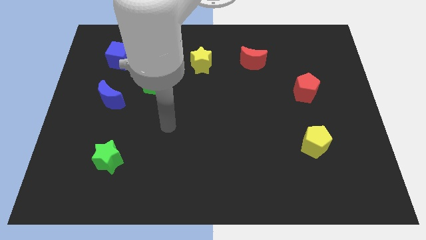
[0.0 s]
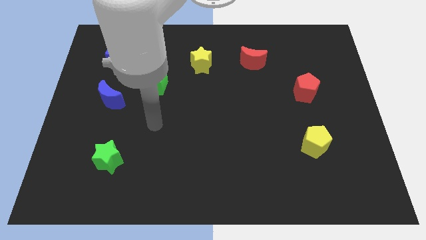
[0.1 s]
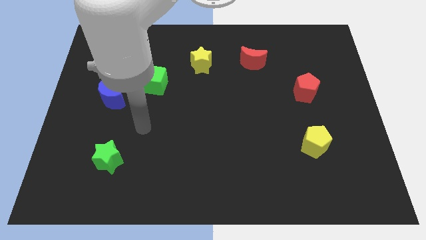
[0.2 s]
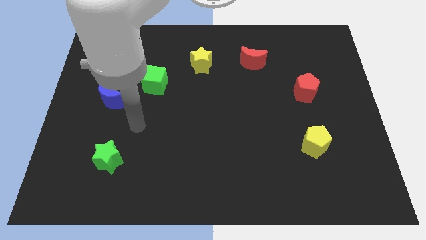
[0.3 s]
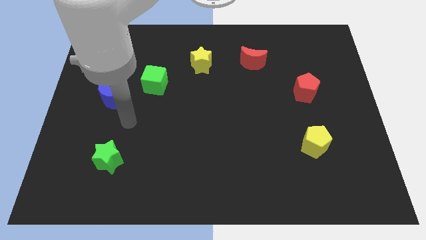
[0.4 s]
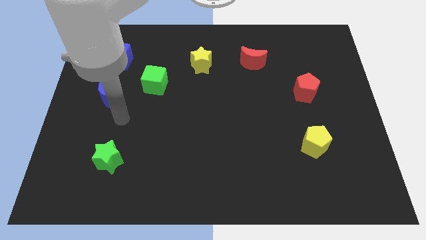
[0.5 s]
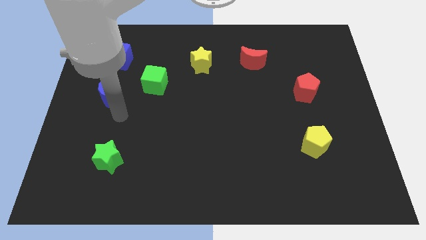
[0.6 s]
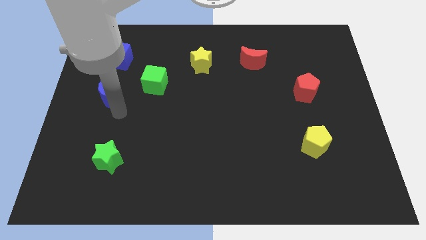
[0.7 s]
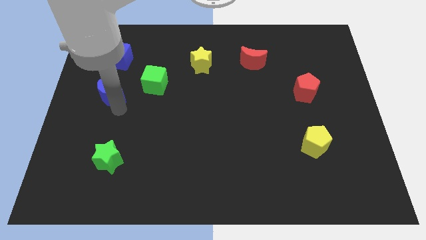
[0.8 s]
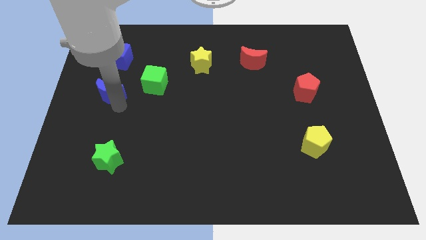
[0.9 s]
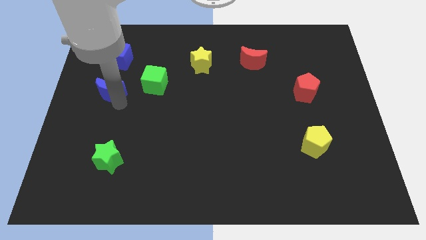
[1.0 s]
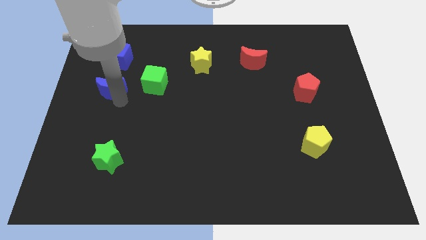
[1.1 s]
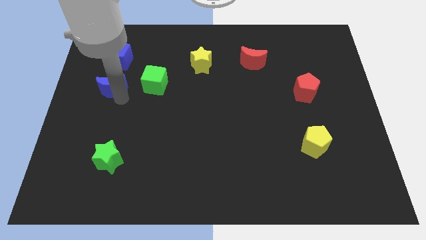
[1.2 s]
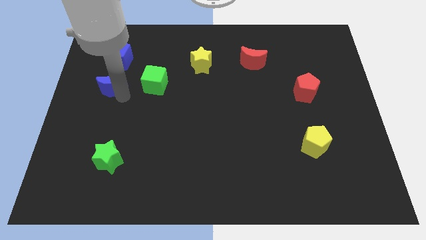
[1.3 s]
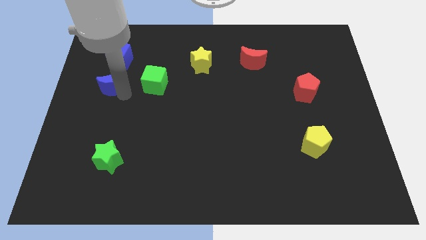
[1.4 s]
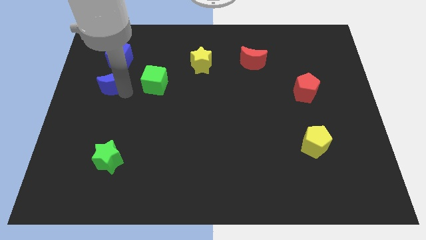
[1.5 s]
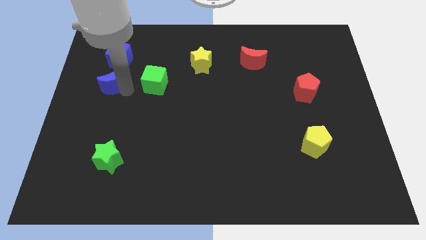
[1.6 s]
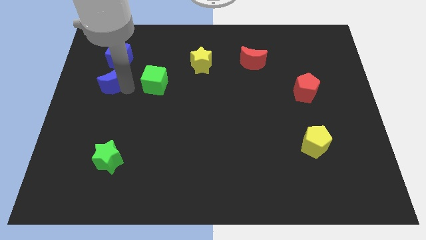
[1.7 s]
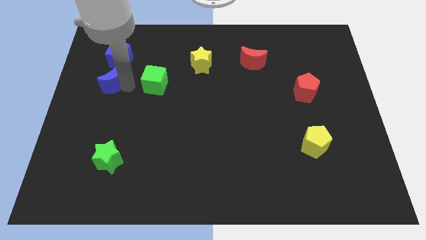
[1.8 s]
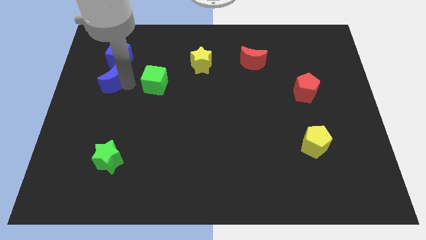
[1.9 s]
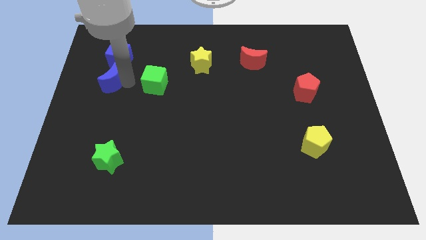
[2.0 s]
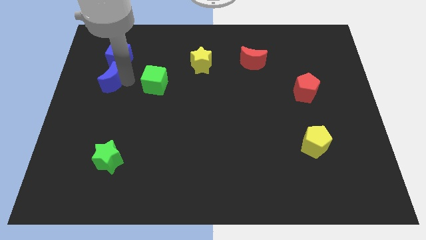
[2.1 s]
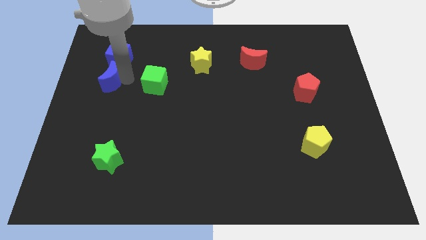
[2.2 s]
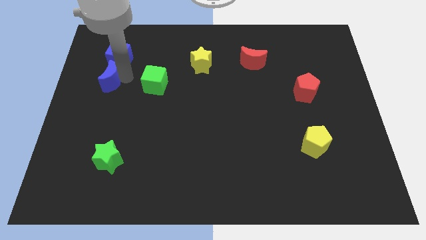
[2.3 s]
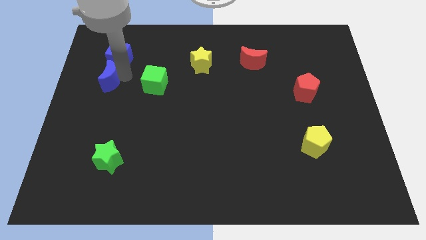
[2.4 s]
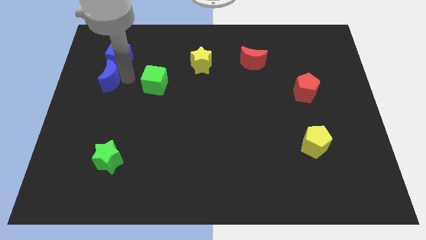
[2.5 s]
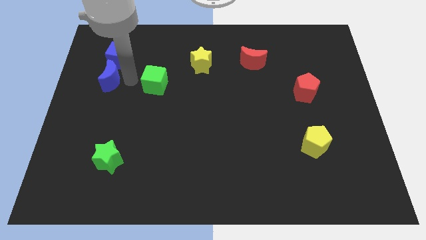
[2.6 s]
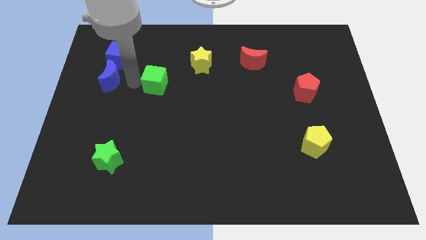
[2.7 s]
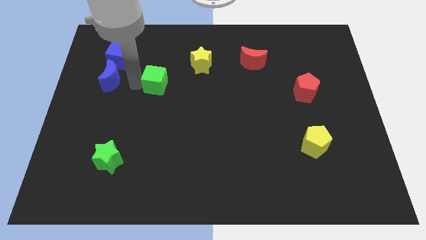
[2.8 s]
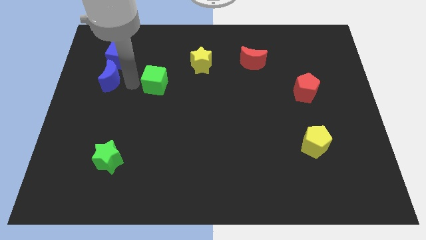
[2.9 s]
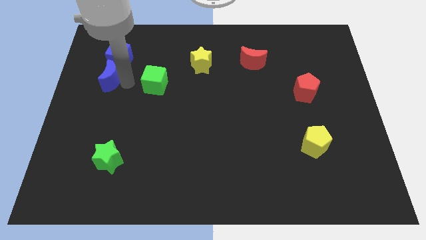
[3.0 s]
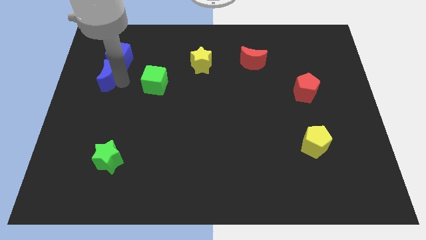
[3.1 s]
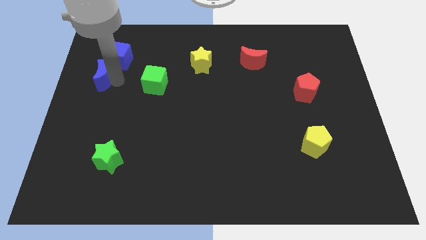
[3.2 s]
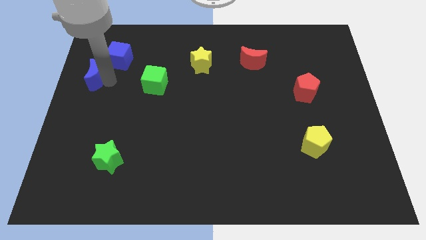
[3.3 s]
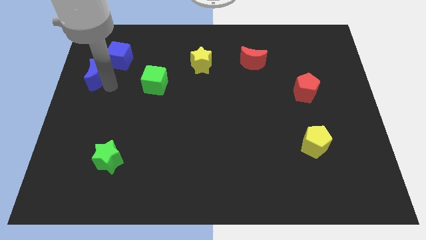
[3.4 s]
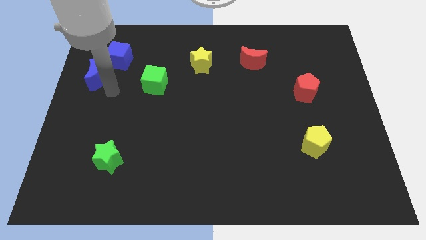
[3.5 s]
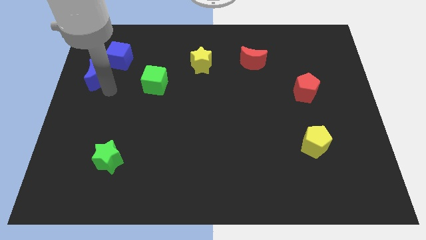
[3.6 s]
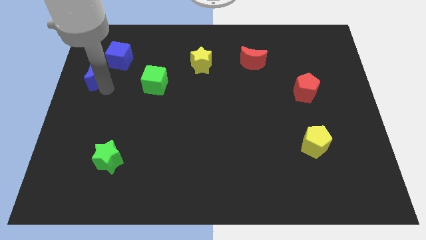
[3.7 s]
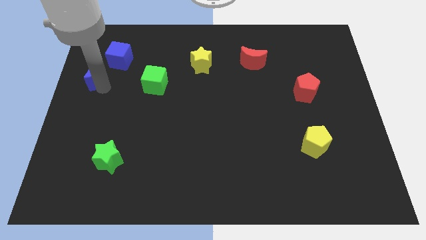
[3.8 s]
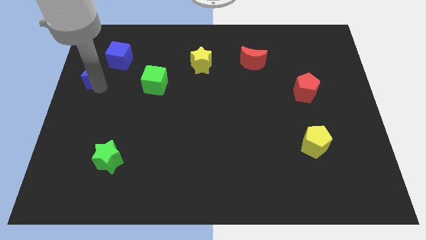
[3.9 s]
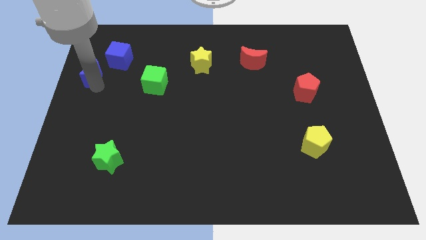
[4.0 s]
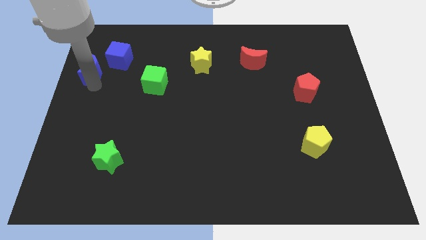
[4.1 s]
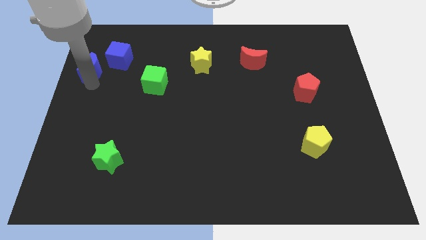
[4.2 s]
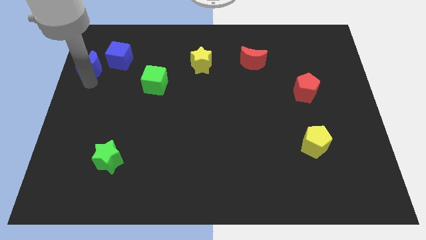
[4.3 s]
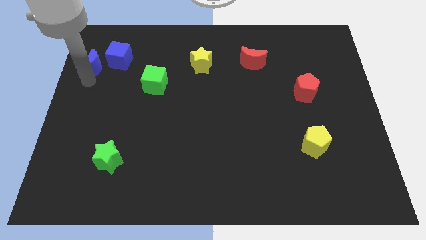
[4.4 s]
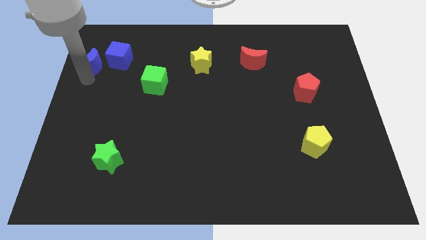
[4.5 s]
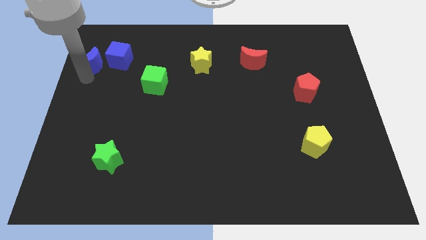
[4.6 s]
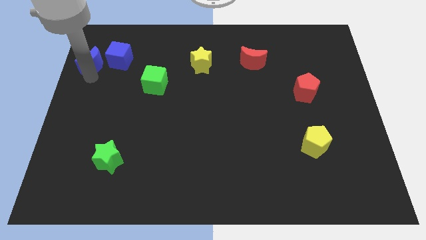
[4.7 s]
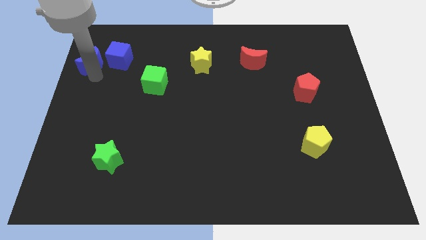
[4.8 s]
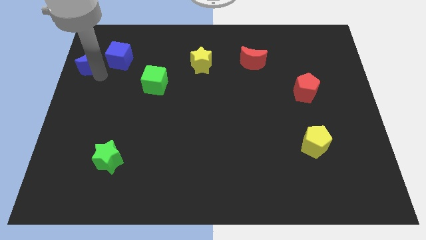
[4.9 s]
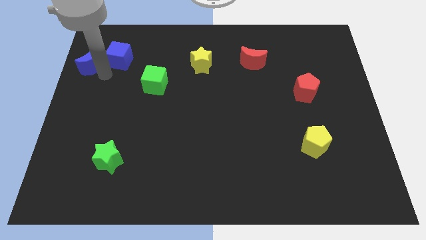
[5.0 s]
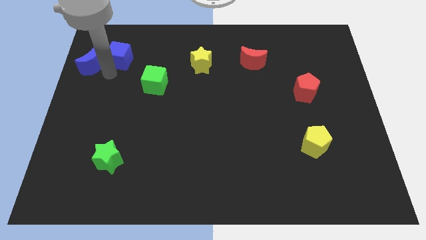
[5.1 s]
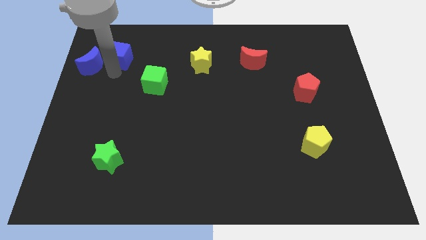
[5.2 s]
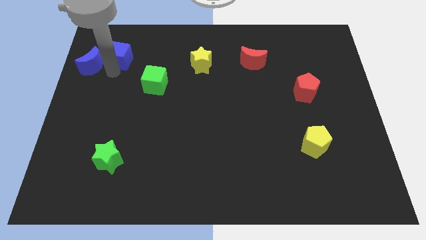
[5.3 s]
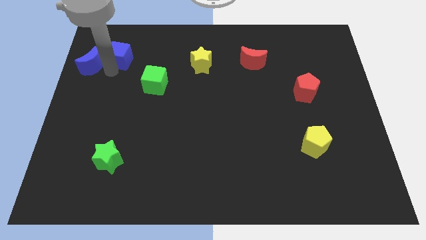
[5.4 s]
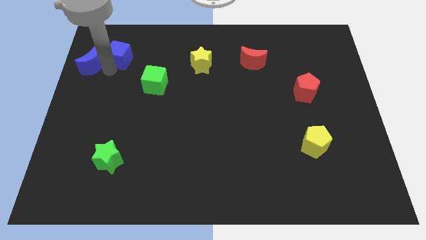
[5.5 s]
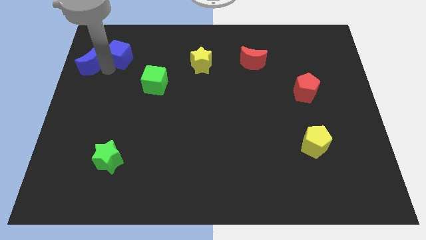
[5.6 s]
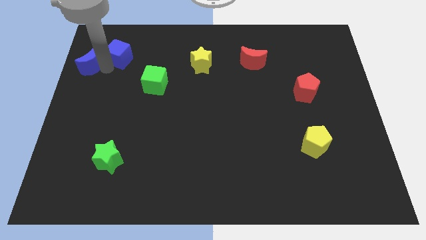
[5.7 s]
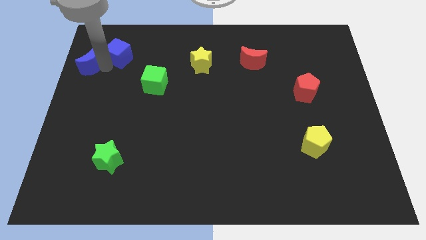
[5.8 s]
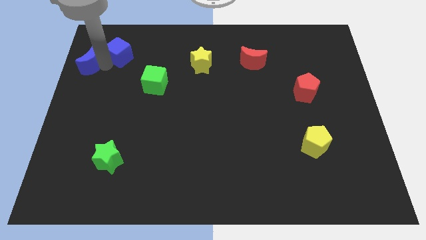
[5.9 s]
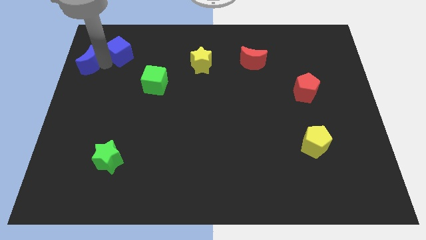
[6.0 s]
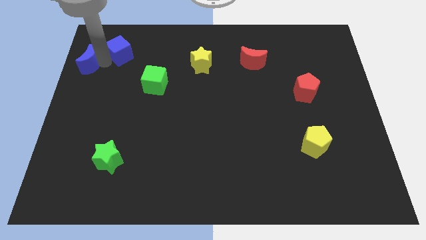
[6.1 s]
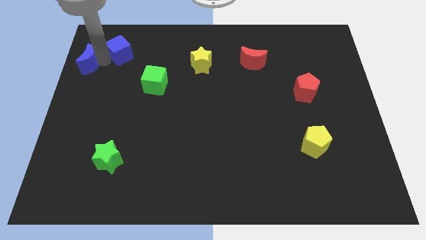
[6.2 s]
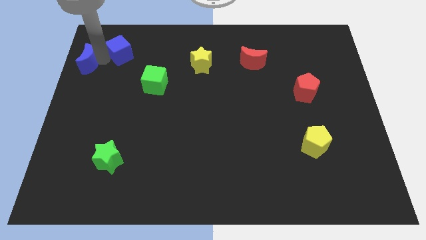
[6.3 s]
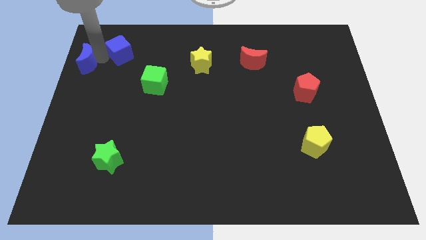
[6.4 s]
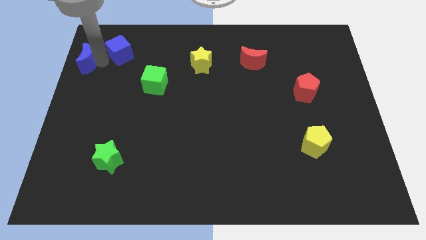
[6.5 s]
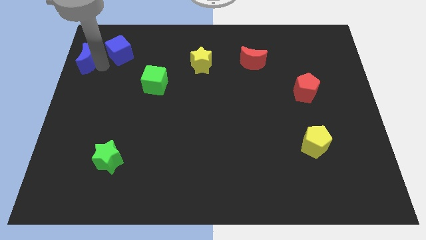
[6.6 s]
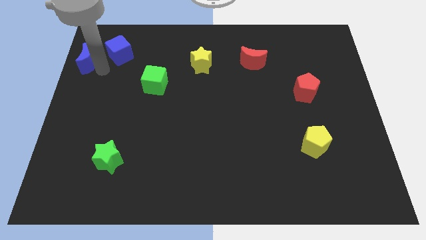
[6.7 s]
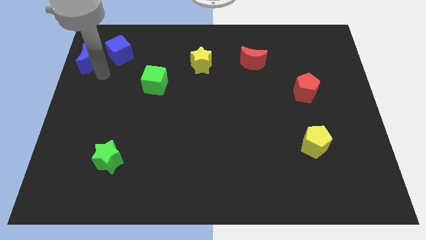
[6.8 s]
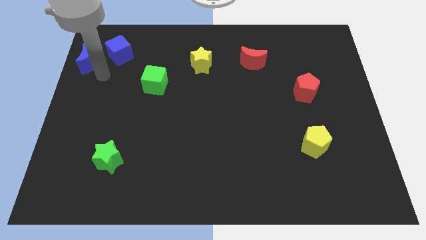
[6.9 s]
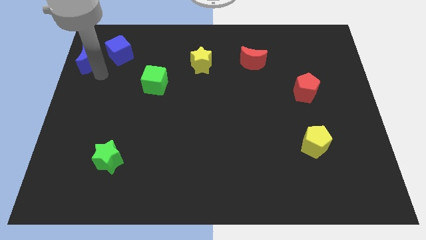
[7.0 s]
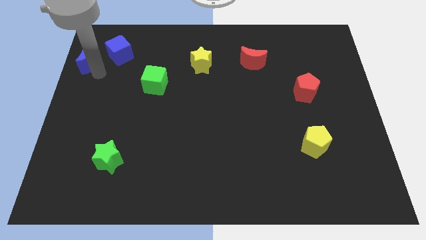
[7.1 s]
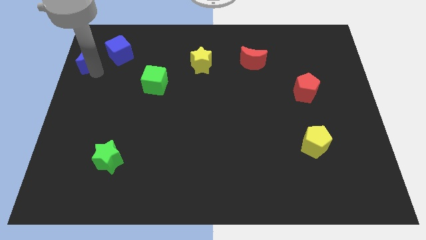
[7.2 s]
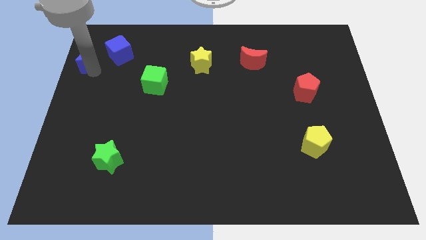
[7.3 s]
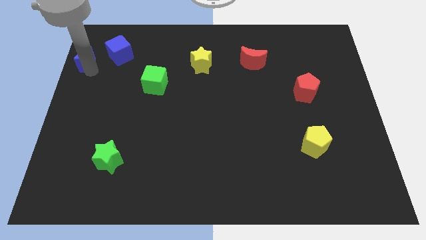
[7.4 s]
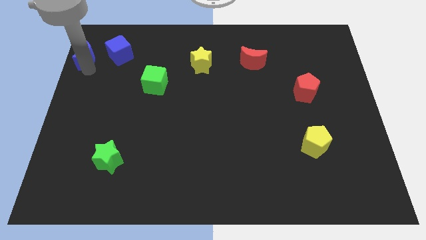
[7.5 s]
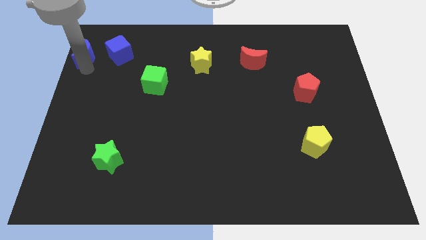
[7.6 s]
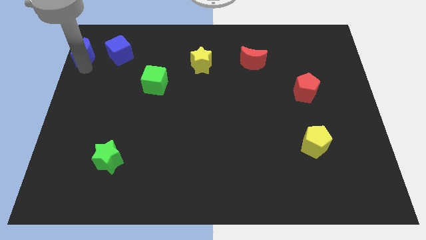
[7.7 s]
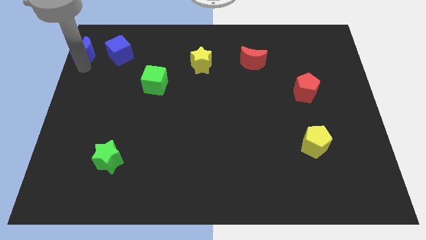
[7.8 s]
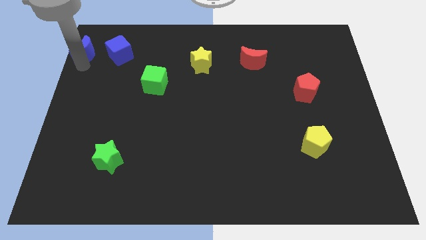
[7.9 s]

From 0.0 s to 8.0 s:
move the blue moon to the top left corner
